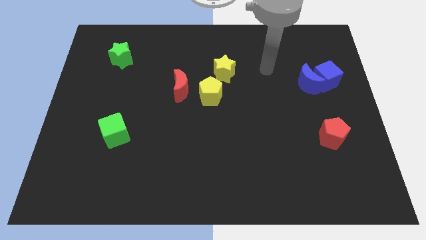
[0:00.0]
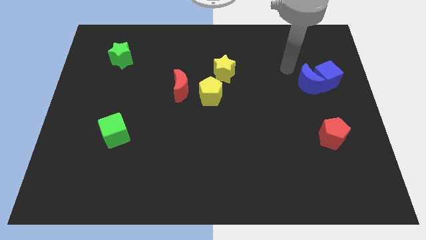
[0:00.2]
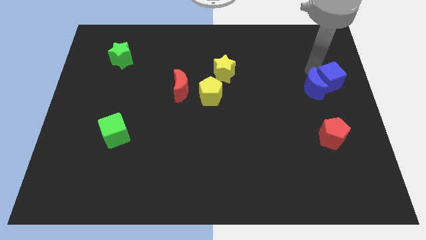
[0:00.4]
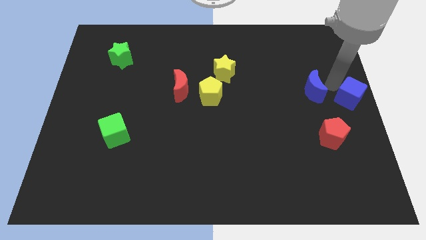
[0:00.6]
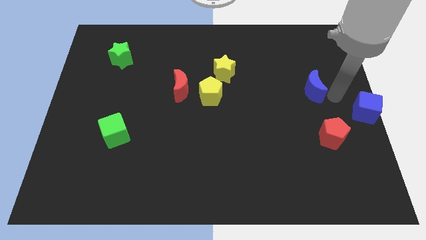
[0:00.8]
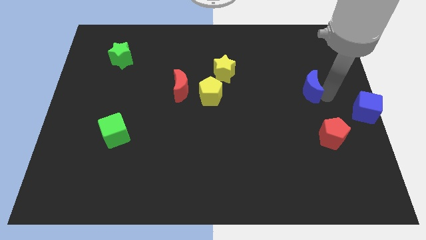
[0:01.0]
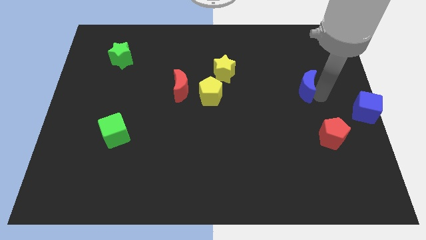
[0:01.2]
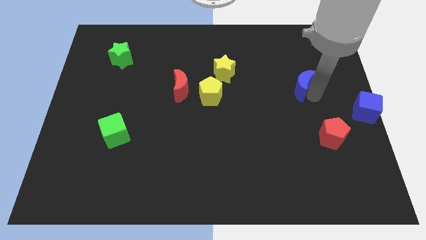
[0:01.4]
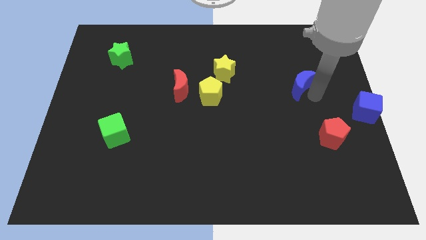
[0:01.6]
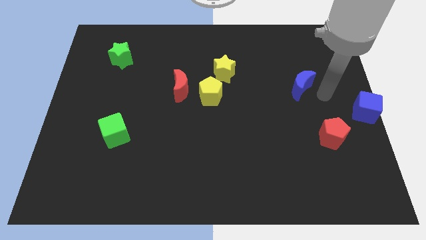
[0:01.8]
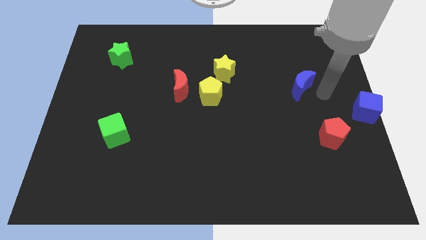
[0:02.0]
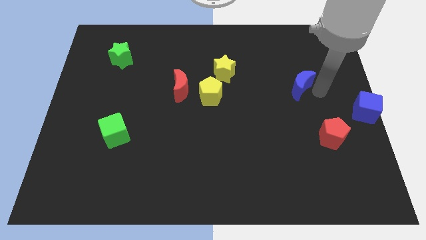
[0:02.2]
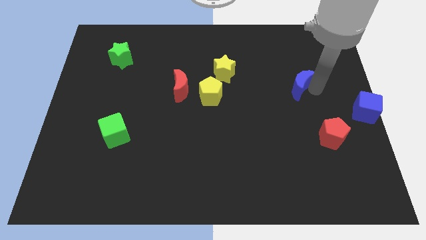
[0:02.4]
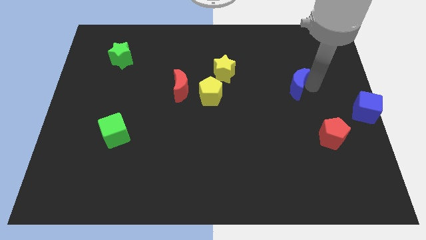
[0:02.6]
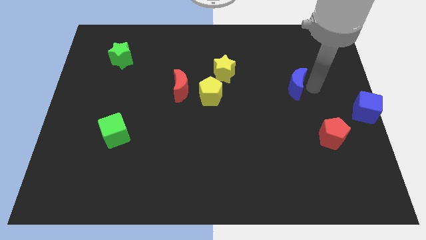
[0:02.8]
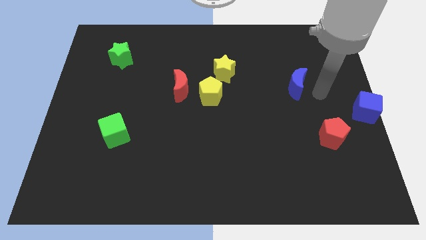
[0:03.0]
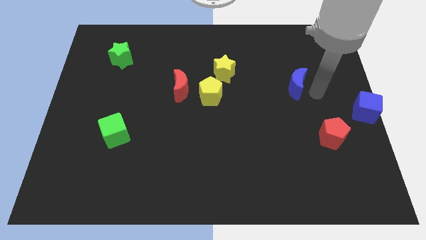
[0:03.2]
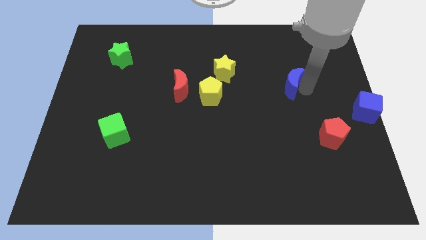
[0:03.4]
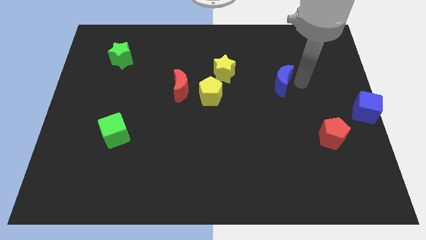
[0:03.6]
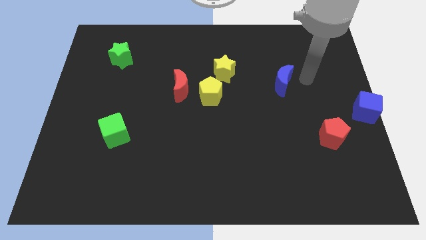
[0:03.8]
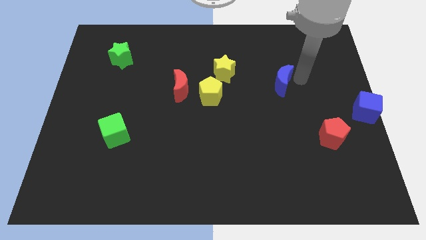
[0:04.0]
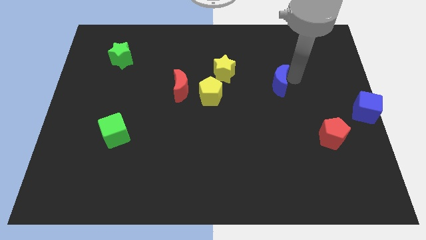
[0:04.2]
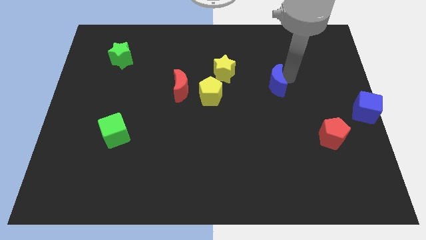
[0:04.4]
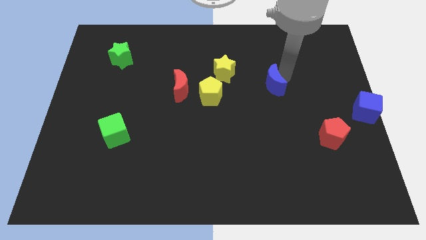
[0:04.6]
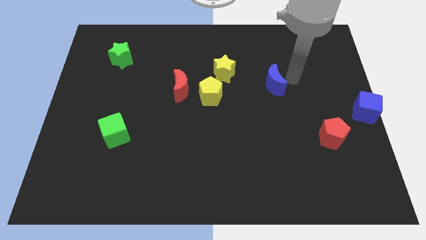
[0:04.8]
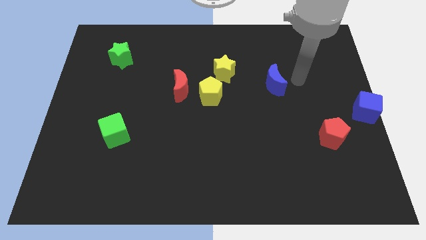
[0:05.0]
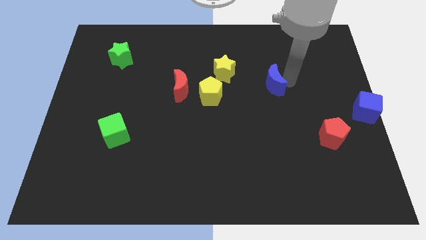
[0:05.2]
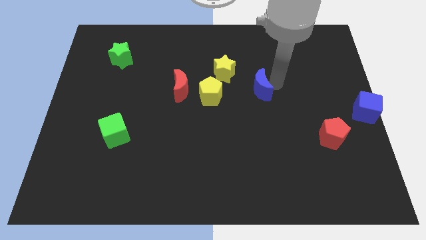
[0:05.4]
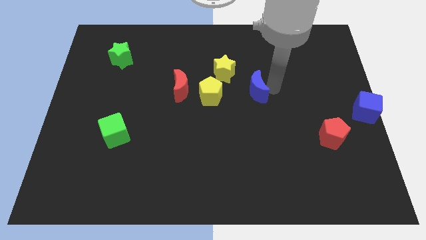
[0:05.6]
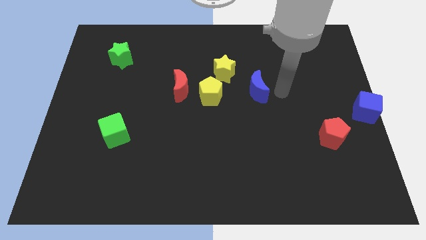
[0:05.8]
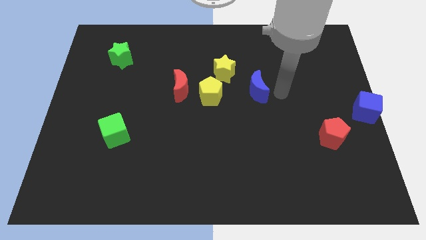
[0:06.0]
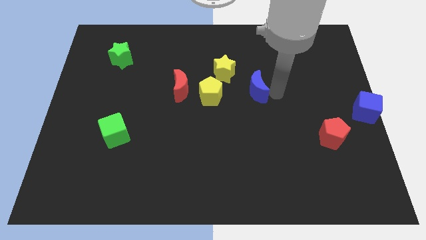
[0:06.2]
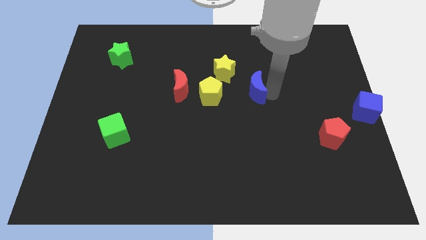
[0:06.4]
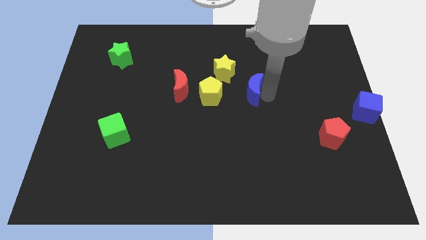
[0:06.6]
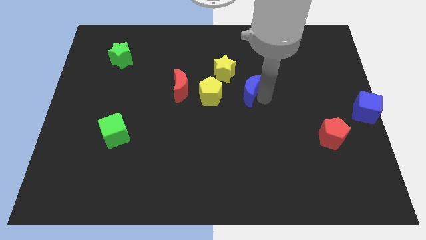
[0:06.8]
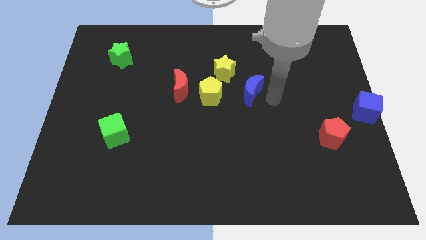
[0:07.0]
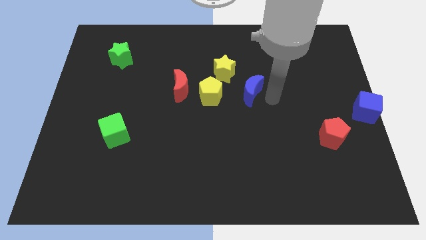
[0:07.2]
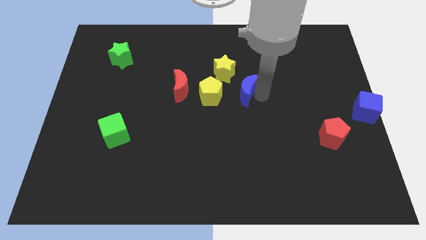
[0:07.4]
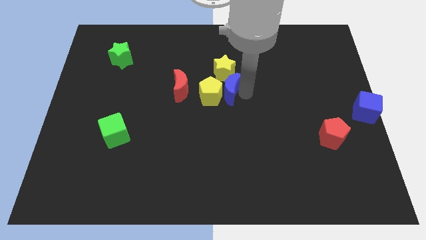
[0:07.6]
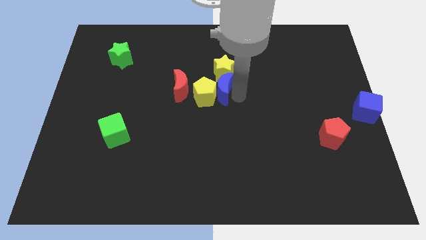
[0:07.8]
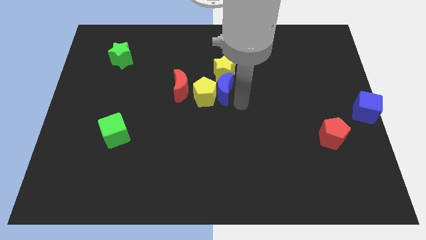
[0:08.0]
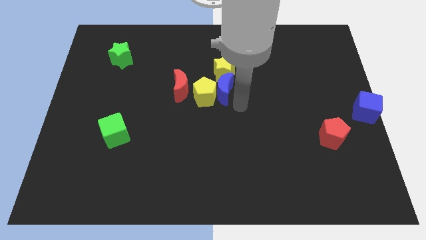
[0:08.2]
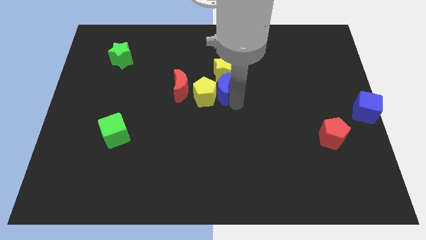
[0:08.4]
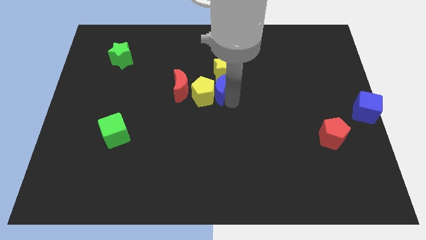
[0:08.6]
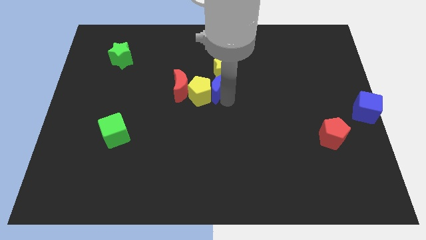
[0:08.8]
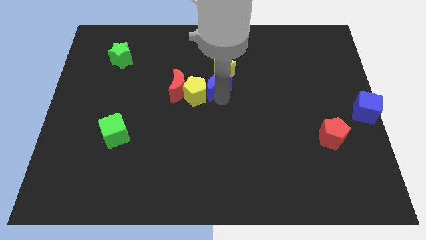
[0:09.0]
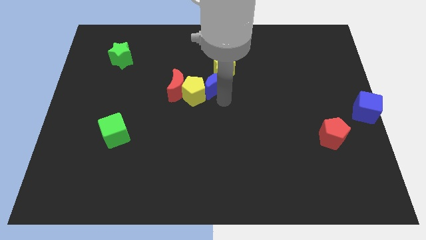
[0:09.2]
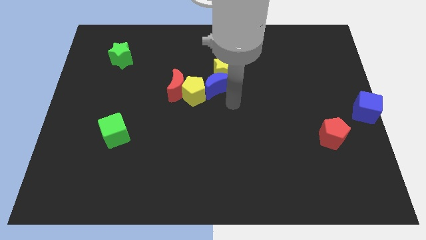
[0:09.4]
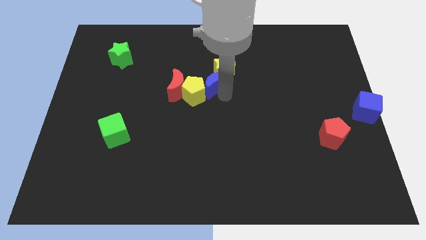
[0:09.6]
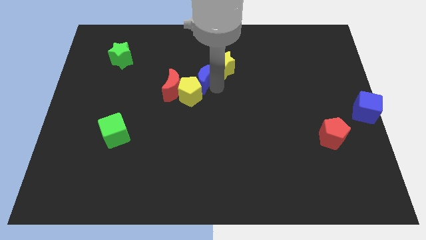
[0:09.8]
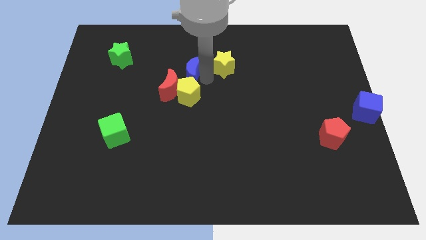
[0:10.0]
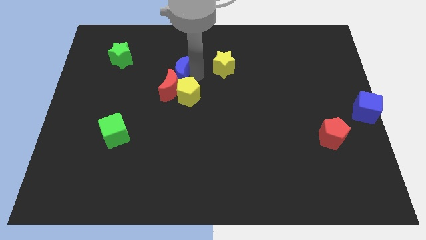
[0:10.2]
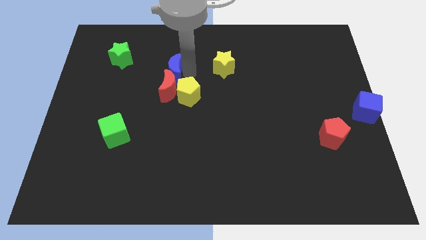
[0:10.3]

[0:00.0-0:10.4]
slide the blue moon diagonally up and to the left of the red moon

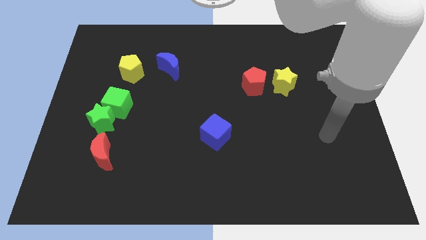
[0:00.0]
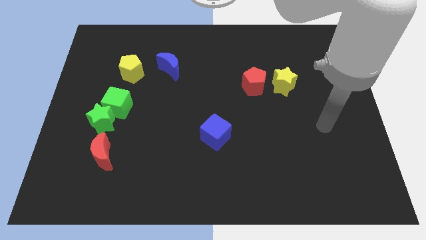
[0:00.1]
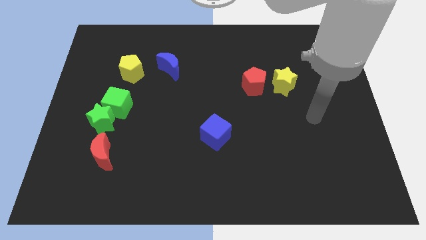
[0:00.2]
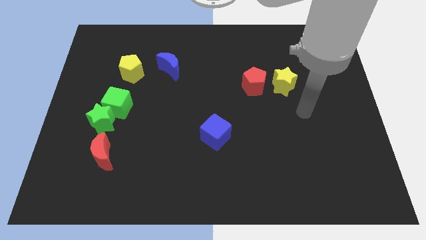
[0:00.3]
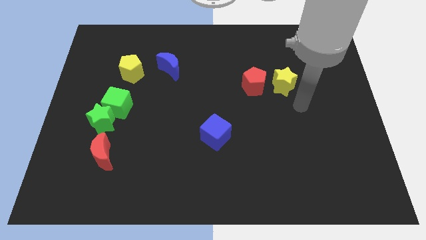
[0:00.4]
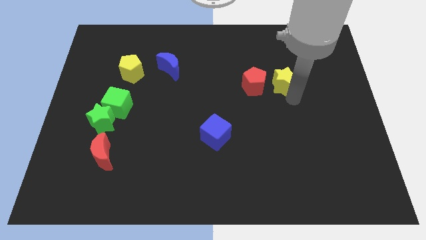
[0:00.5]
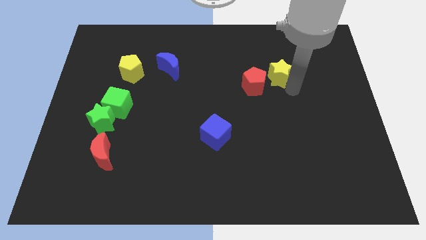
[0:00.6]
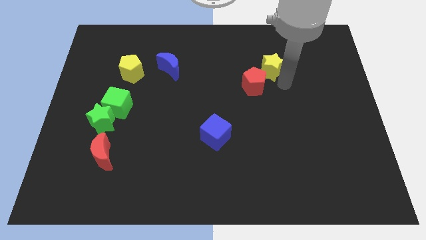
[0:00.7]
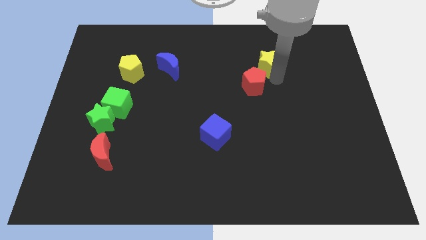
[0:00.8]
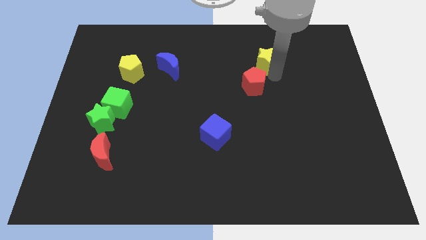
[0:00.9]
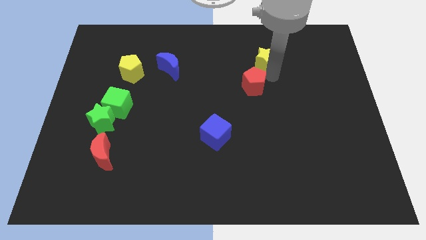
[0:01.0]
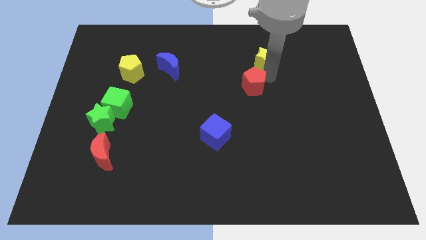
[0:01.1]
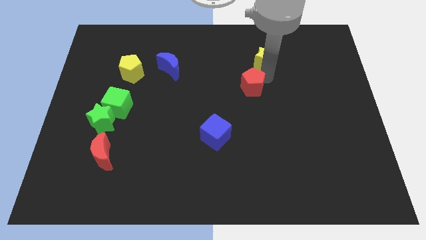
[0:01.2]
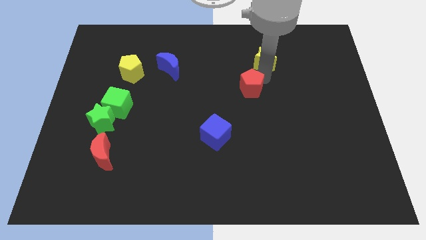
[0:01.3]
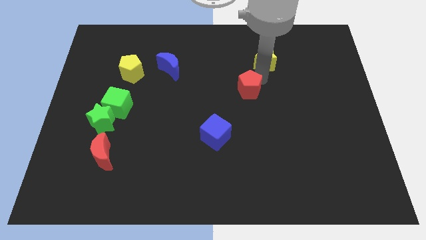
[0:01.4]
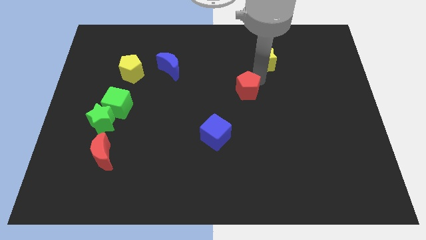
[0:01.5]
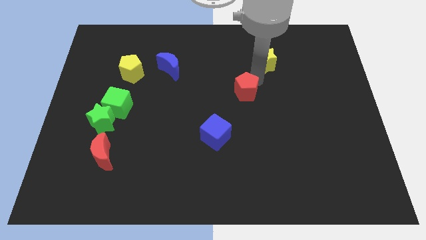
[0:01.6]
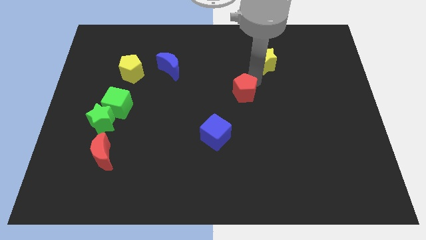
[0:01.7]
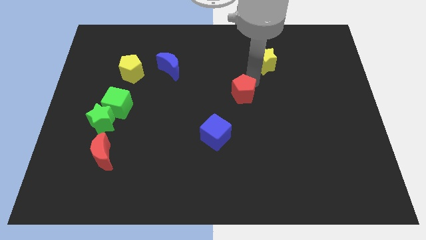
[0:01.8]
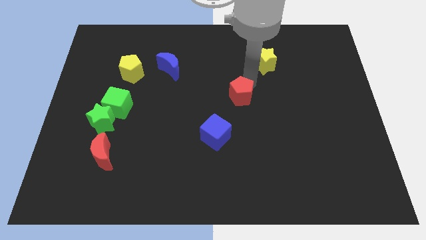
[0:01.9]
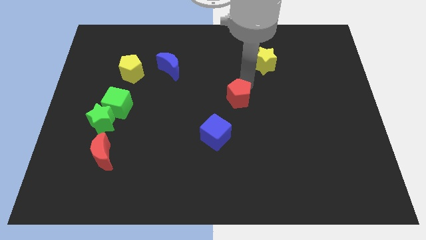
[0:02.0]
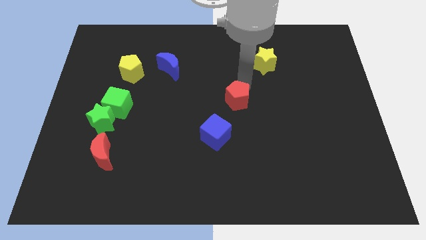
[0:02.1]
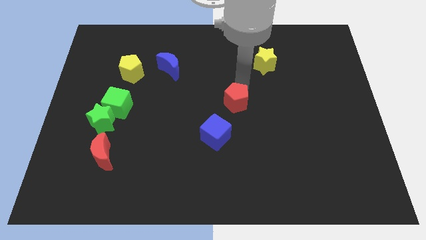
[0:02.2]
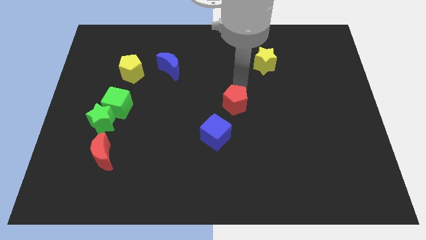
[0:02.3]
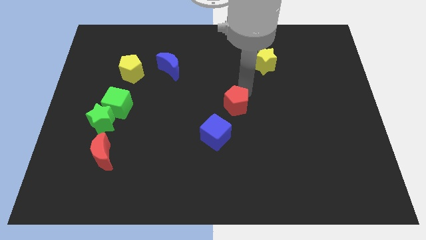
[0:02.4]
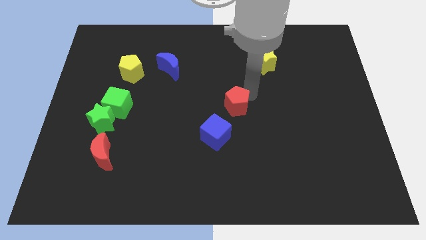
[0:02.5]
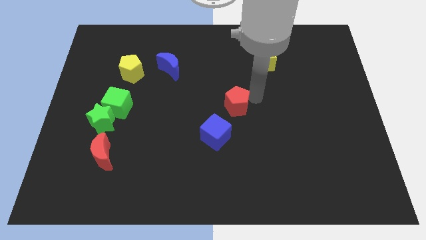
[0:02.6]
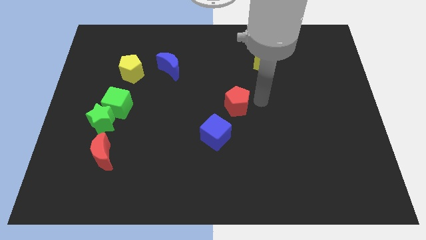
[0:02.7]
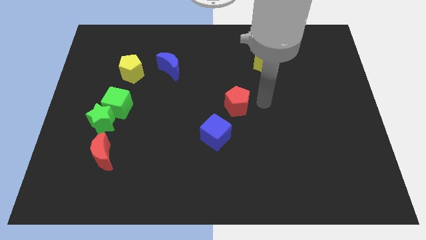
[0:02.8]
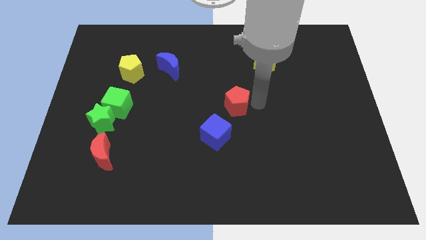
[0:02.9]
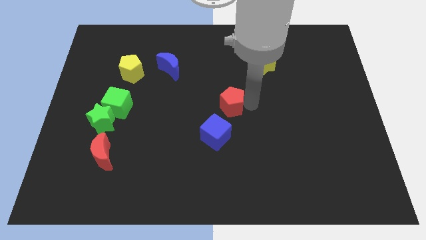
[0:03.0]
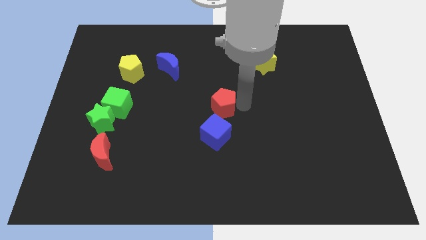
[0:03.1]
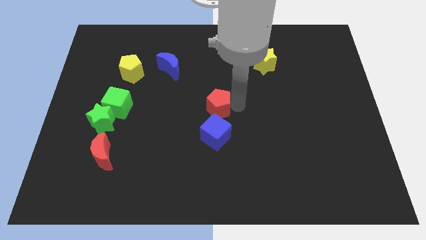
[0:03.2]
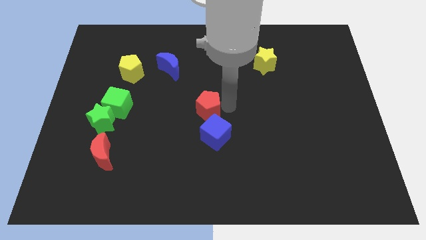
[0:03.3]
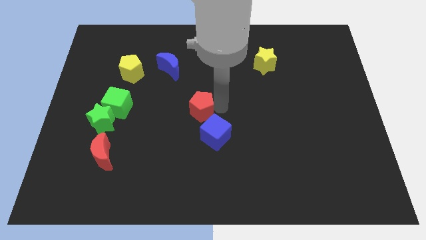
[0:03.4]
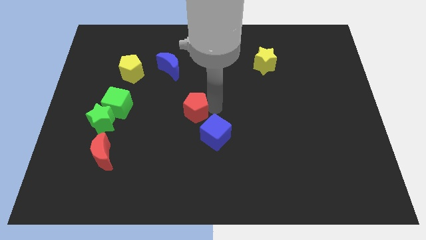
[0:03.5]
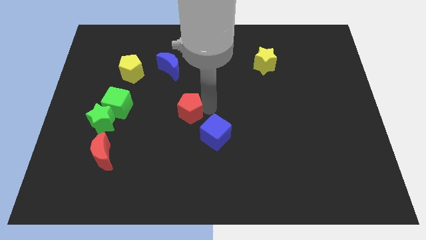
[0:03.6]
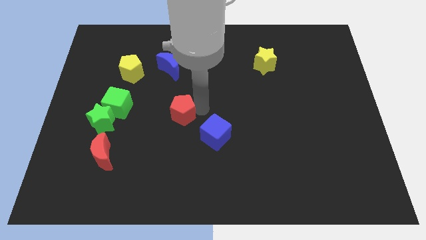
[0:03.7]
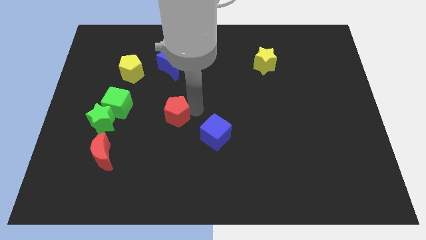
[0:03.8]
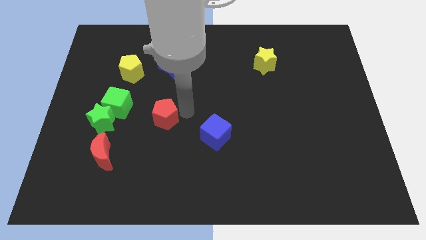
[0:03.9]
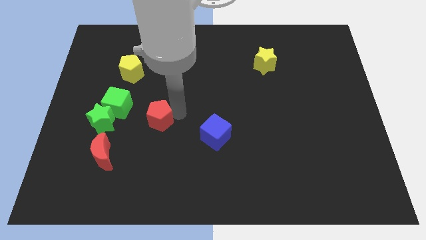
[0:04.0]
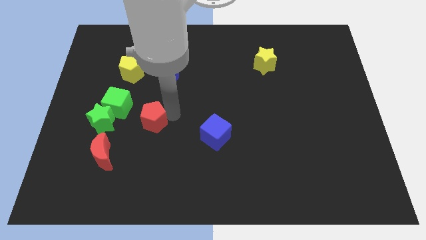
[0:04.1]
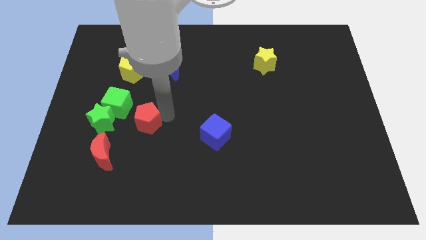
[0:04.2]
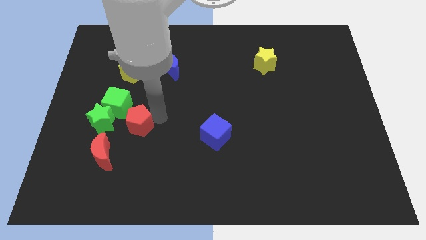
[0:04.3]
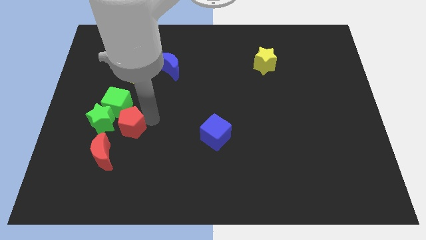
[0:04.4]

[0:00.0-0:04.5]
move the red pentagon diagonally down and to the right of the green star
